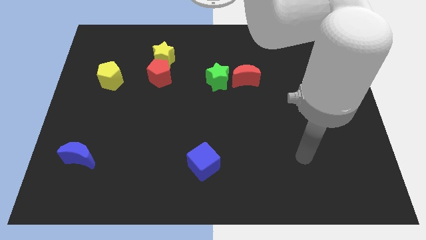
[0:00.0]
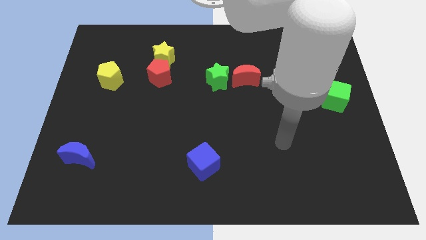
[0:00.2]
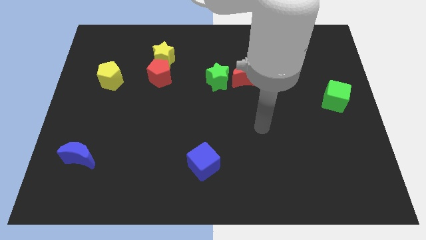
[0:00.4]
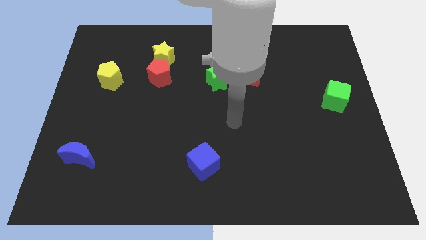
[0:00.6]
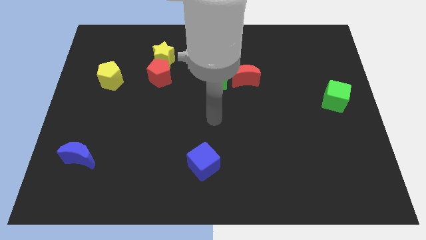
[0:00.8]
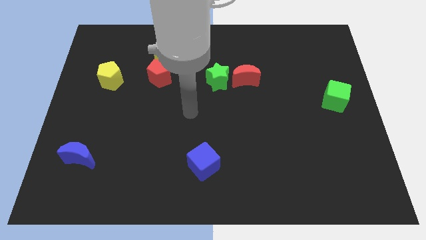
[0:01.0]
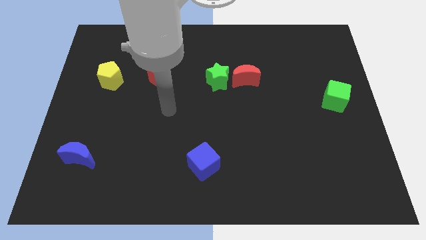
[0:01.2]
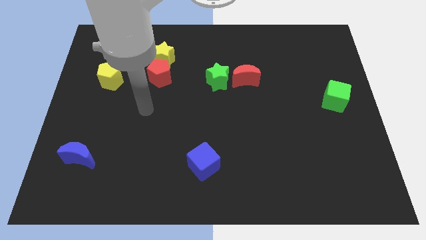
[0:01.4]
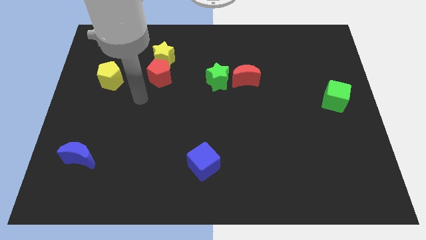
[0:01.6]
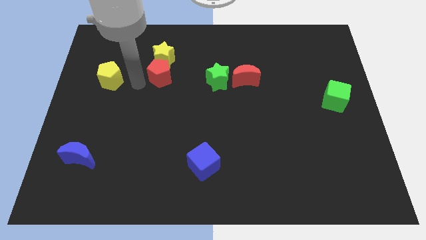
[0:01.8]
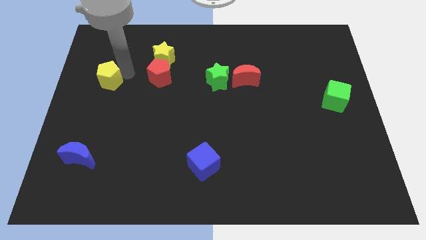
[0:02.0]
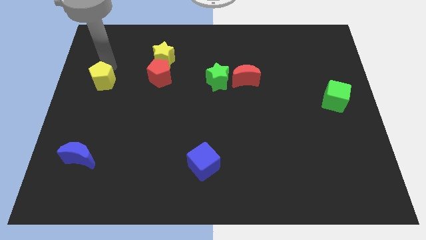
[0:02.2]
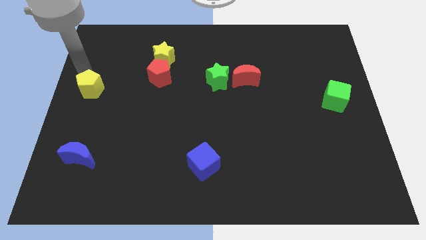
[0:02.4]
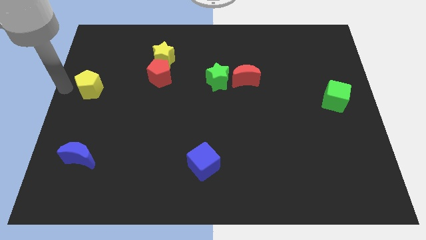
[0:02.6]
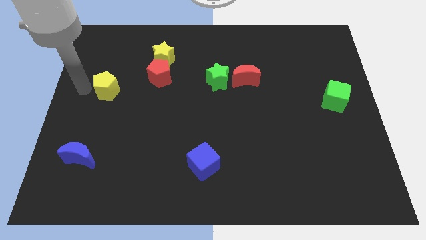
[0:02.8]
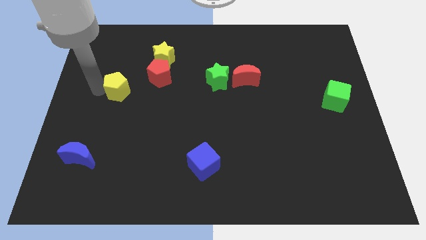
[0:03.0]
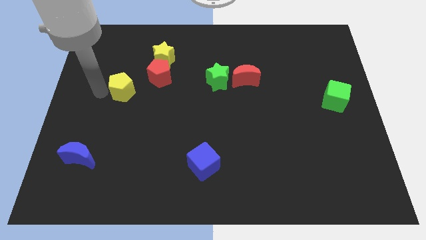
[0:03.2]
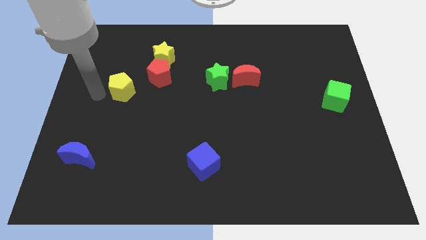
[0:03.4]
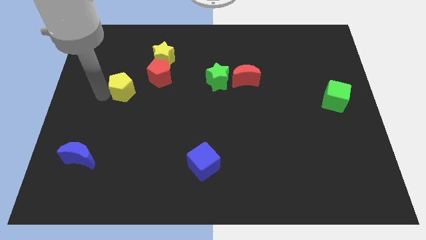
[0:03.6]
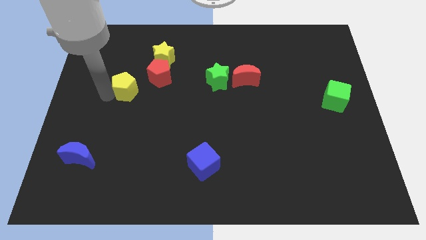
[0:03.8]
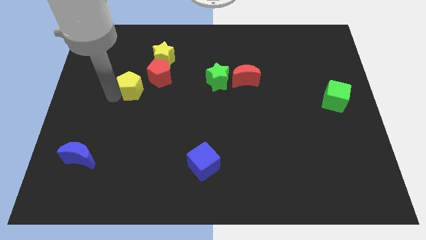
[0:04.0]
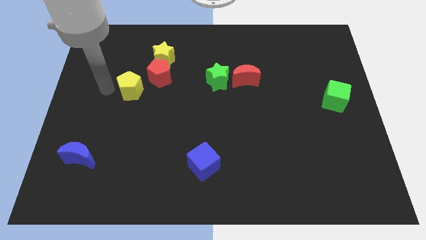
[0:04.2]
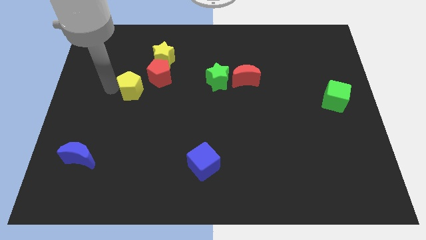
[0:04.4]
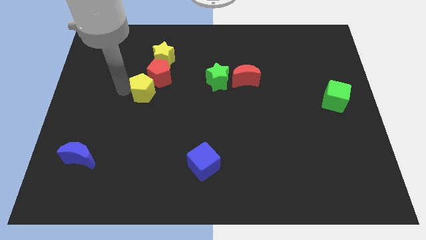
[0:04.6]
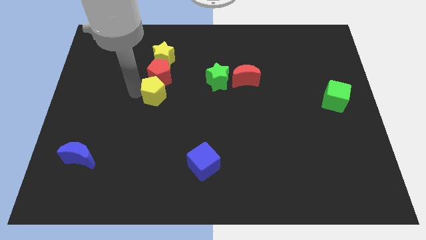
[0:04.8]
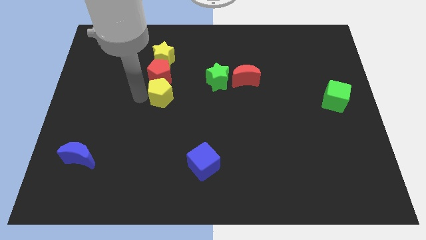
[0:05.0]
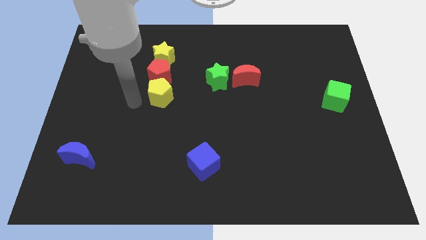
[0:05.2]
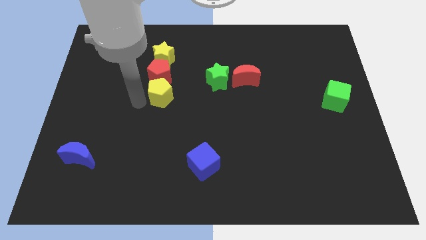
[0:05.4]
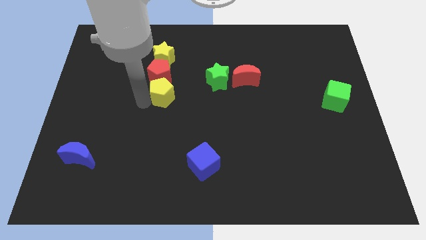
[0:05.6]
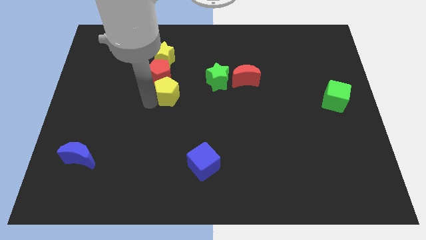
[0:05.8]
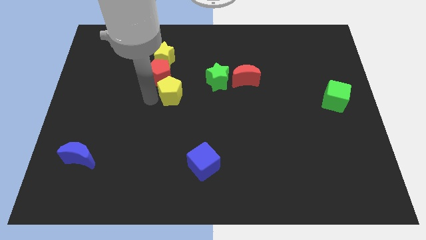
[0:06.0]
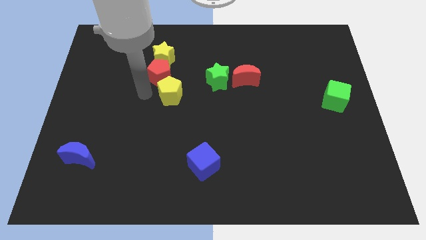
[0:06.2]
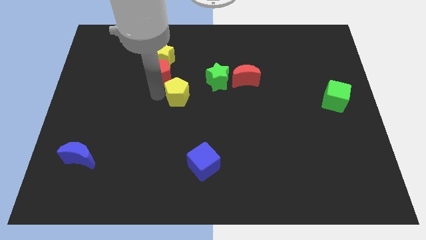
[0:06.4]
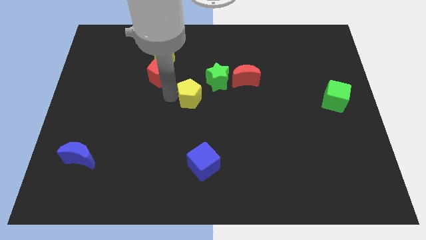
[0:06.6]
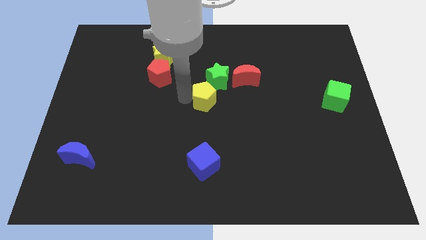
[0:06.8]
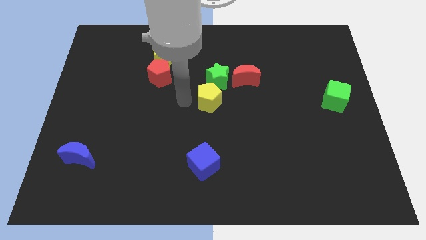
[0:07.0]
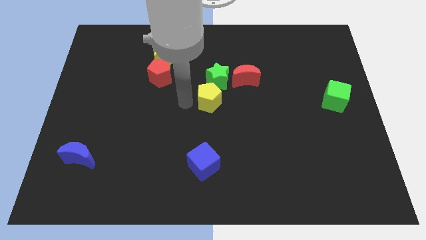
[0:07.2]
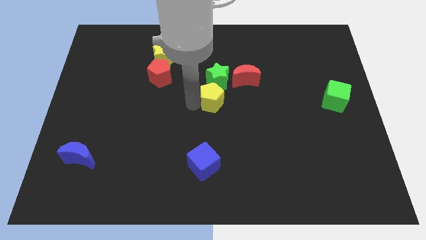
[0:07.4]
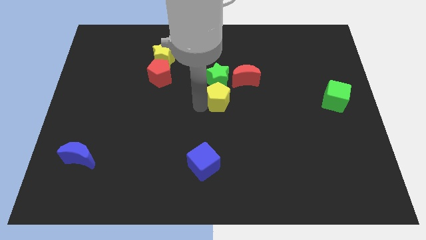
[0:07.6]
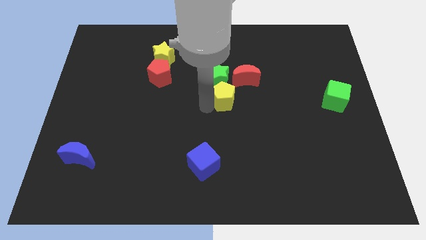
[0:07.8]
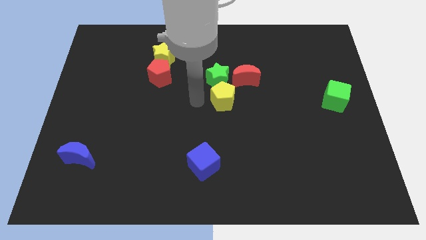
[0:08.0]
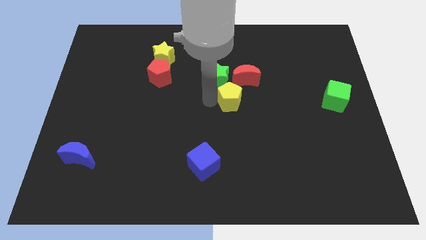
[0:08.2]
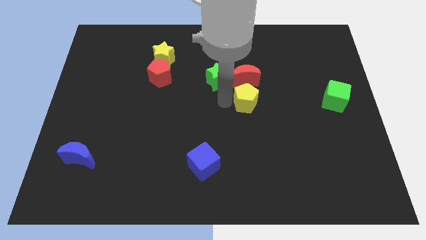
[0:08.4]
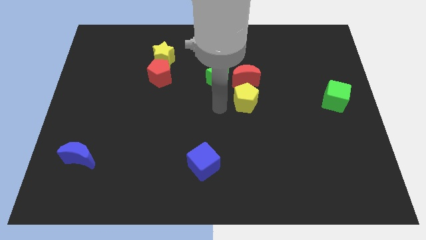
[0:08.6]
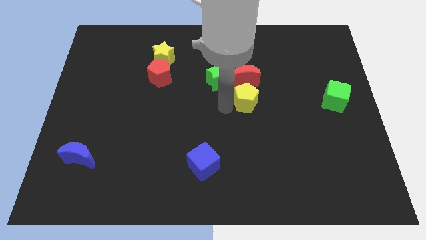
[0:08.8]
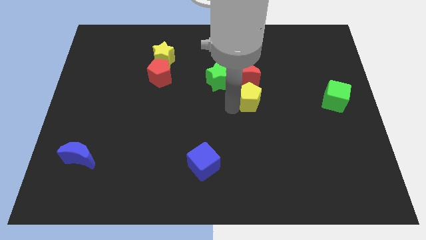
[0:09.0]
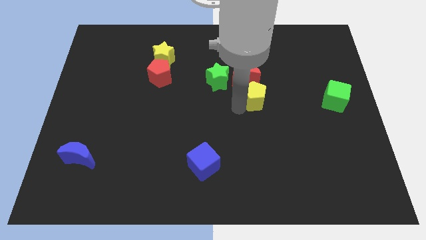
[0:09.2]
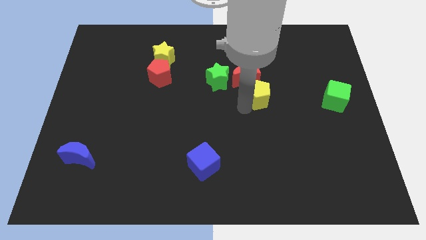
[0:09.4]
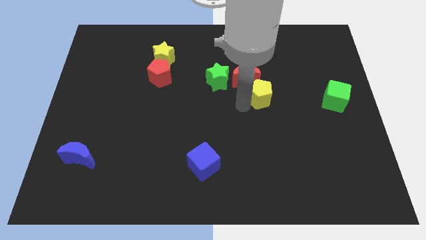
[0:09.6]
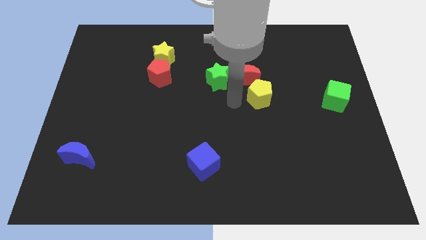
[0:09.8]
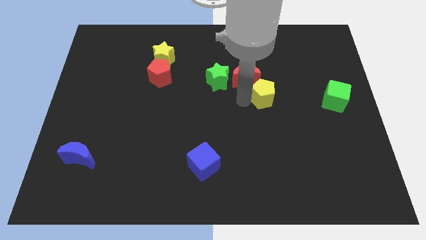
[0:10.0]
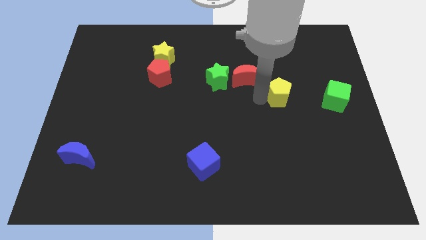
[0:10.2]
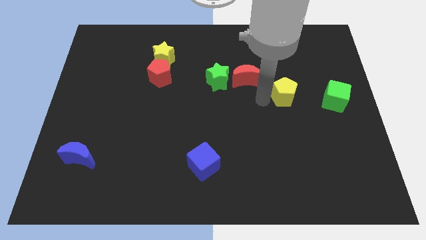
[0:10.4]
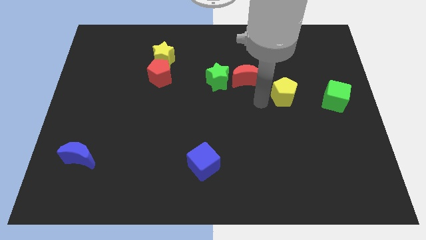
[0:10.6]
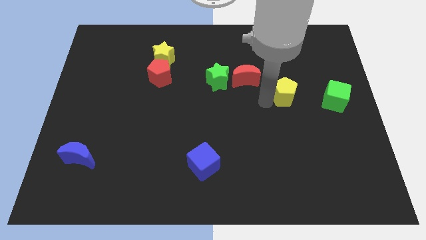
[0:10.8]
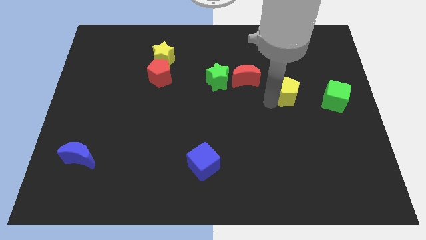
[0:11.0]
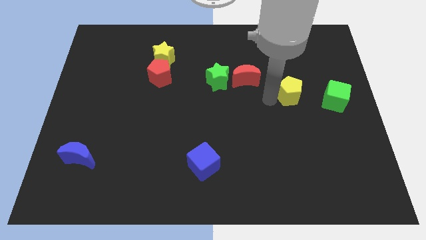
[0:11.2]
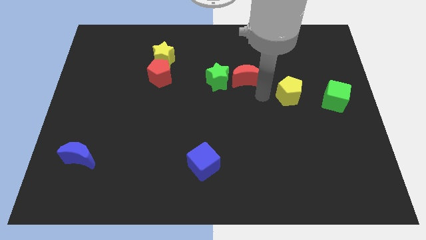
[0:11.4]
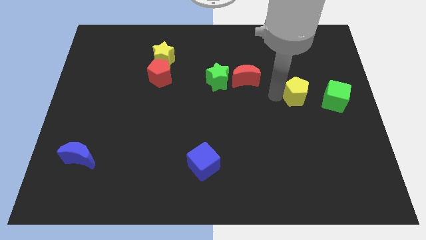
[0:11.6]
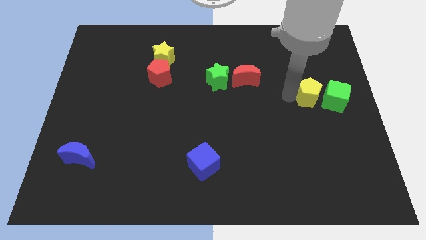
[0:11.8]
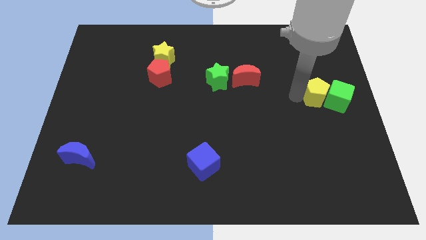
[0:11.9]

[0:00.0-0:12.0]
push the yellow pentagon close to the green cube
